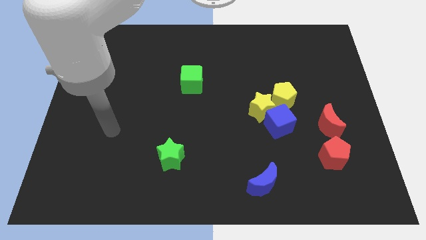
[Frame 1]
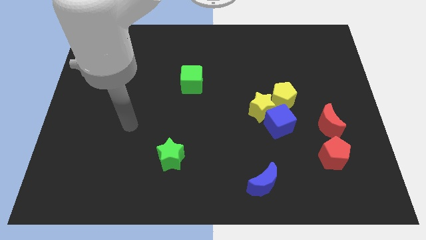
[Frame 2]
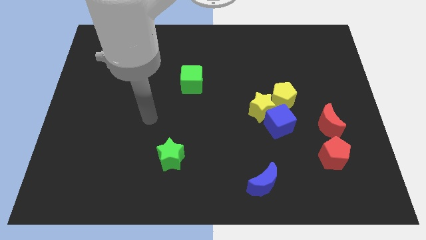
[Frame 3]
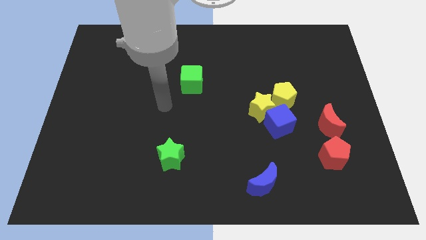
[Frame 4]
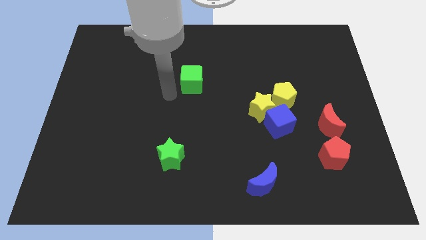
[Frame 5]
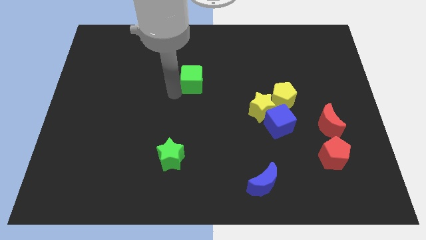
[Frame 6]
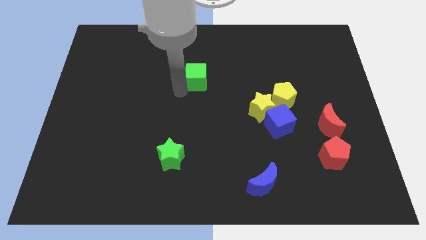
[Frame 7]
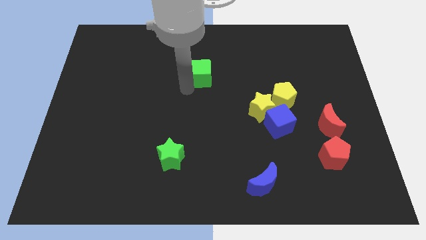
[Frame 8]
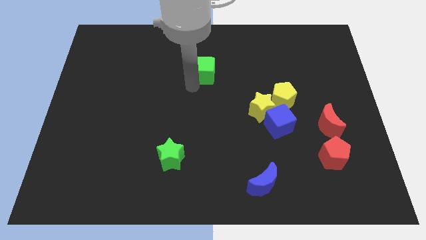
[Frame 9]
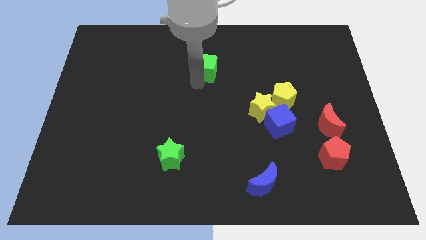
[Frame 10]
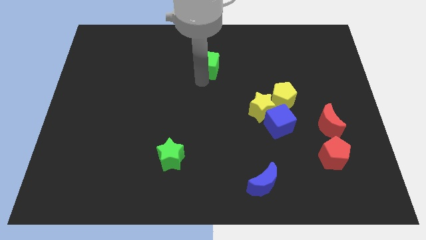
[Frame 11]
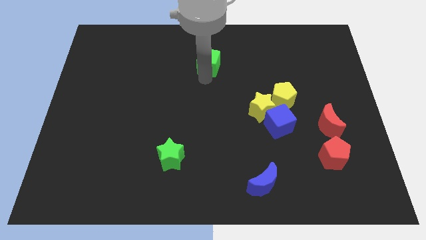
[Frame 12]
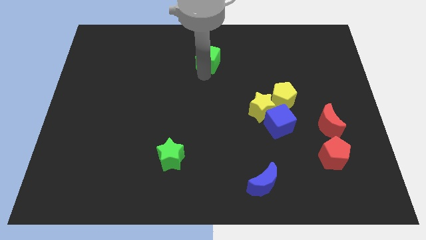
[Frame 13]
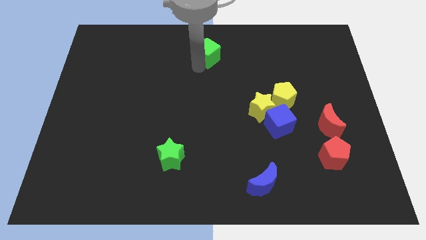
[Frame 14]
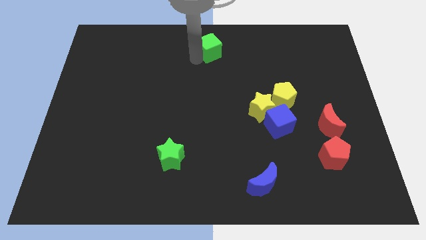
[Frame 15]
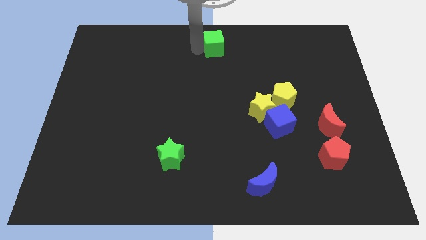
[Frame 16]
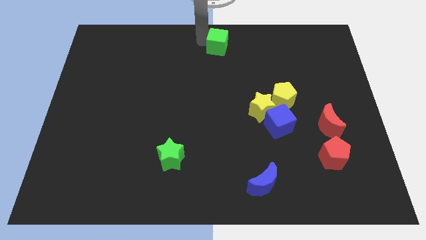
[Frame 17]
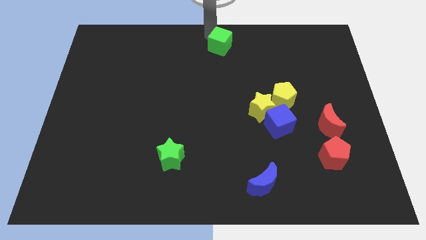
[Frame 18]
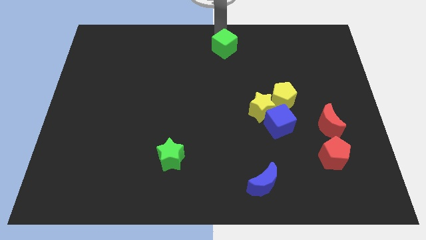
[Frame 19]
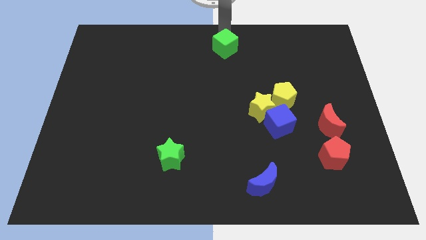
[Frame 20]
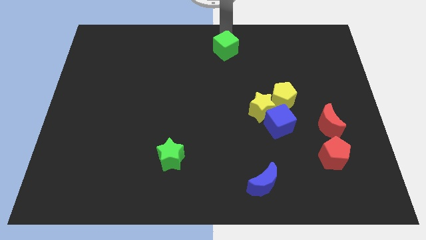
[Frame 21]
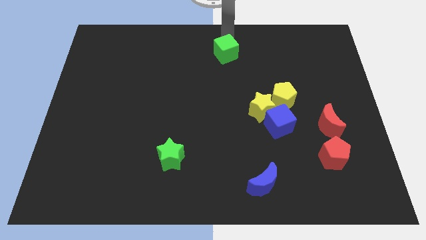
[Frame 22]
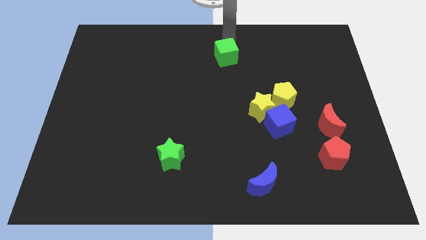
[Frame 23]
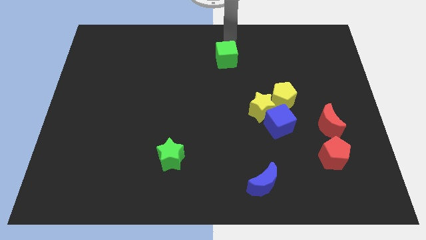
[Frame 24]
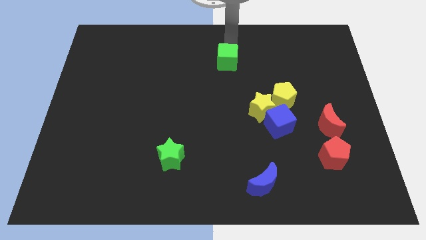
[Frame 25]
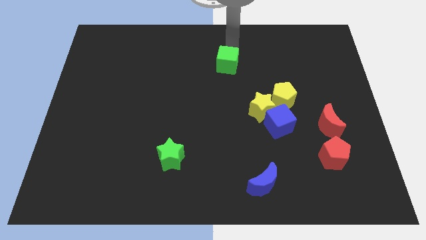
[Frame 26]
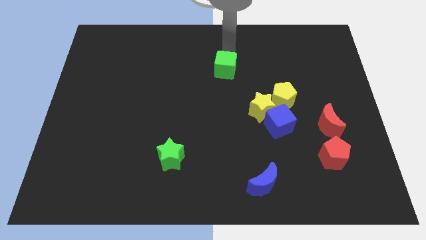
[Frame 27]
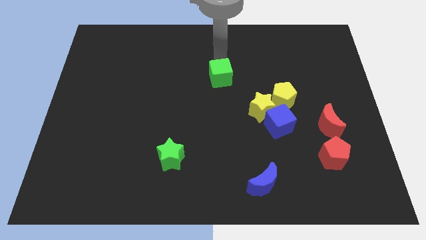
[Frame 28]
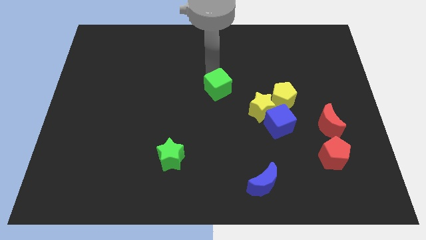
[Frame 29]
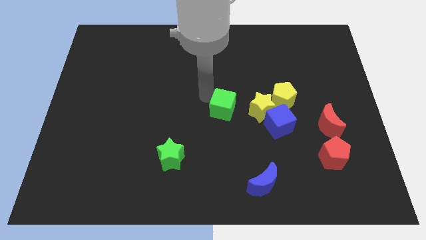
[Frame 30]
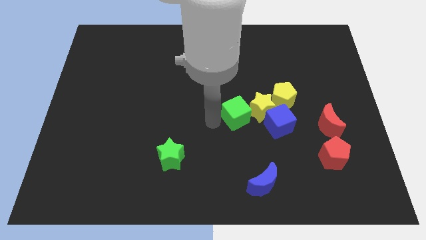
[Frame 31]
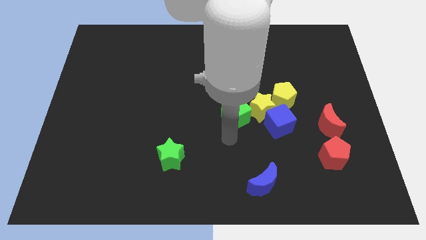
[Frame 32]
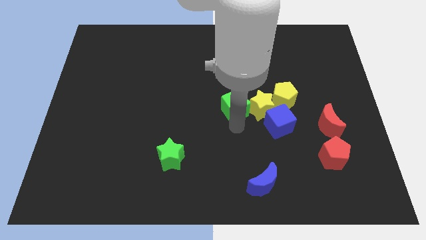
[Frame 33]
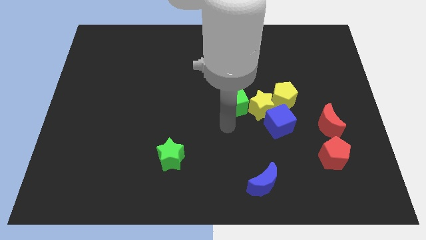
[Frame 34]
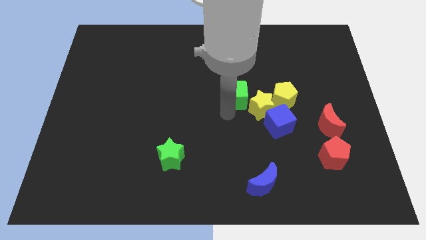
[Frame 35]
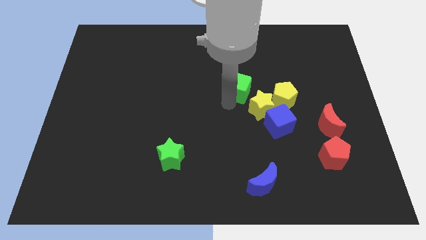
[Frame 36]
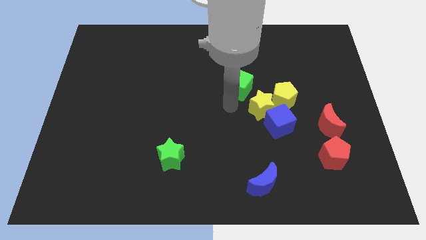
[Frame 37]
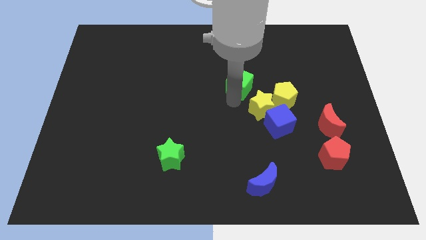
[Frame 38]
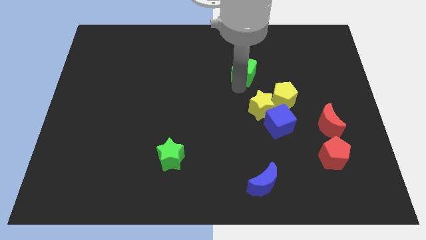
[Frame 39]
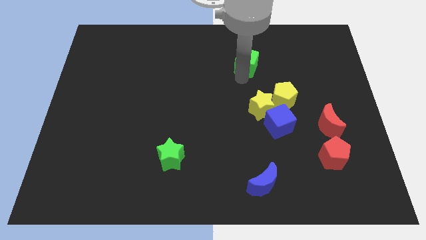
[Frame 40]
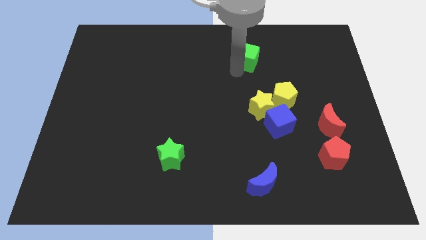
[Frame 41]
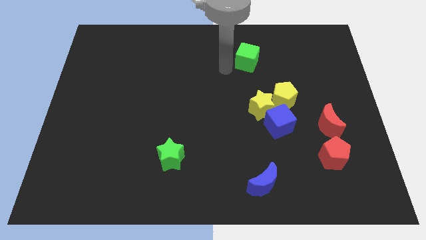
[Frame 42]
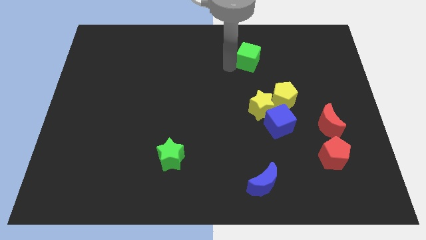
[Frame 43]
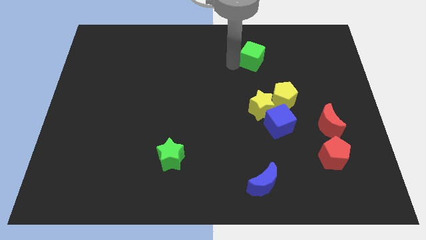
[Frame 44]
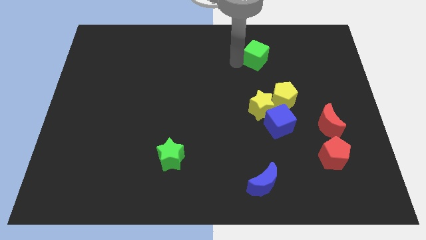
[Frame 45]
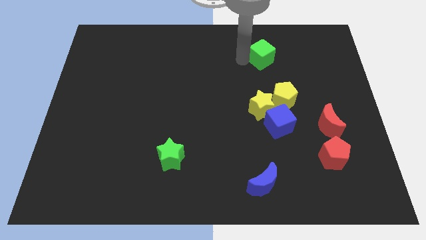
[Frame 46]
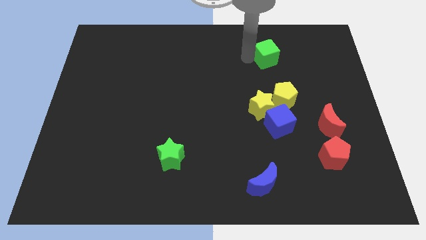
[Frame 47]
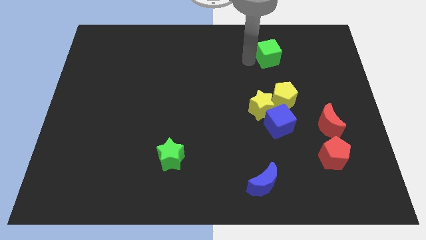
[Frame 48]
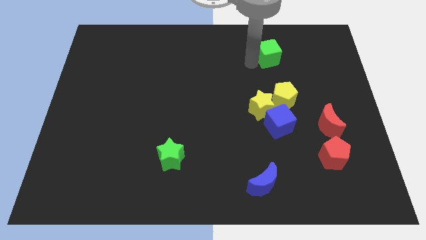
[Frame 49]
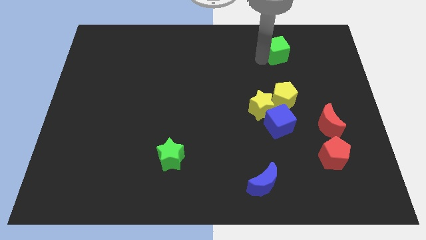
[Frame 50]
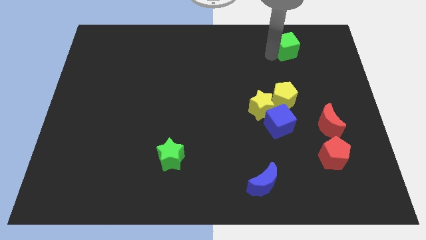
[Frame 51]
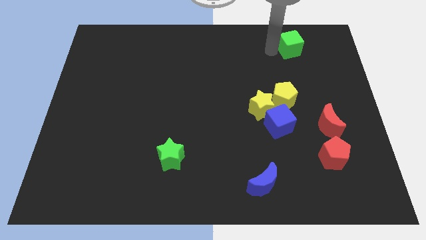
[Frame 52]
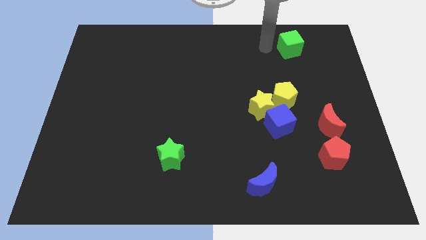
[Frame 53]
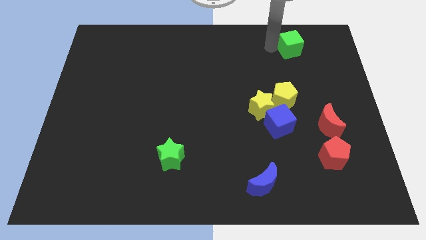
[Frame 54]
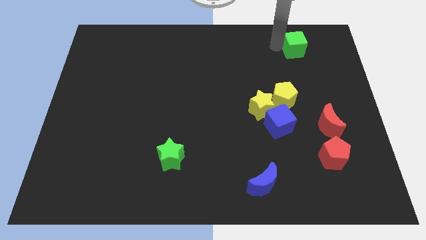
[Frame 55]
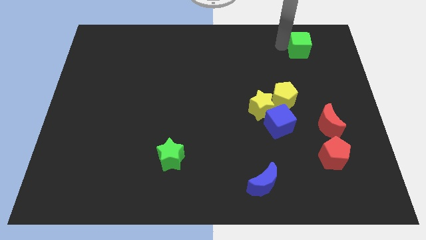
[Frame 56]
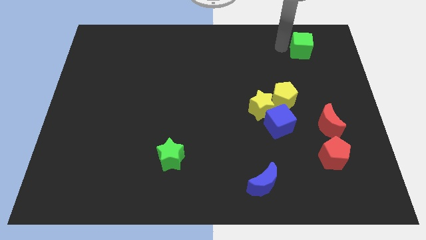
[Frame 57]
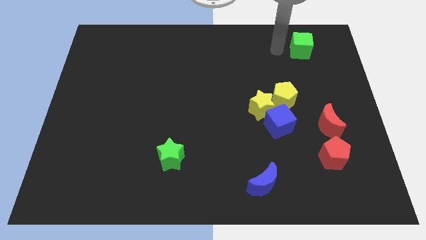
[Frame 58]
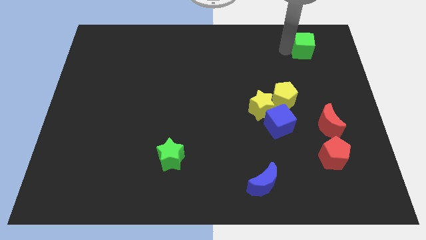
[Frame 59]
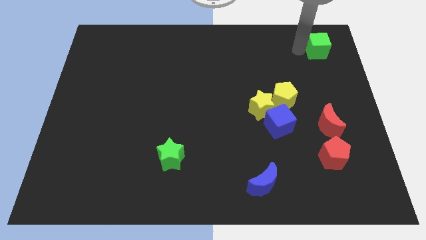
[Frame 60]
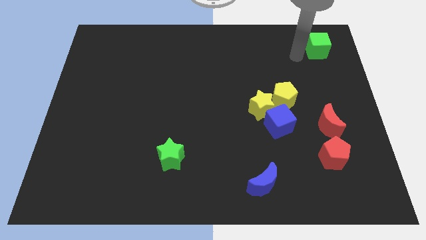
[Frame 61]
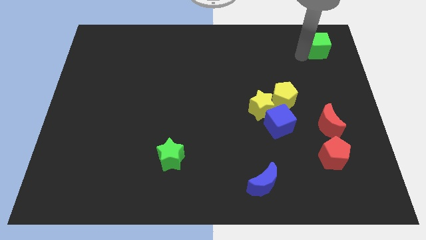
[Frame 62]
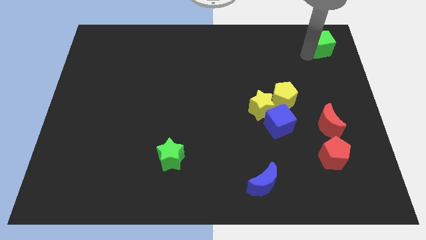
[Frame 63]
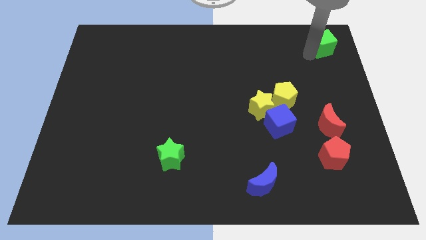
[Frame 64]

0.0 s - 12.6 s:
slide the green cube to the top right of the board

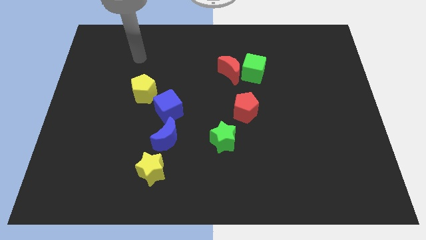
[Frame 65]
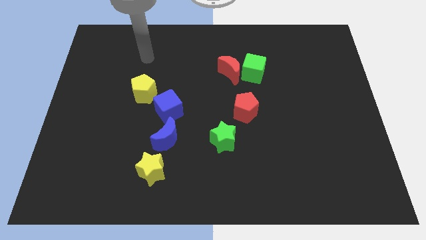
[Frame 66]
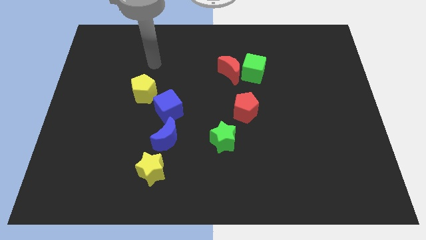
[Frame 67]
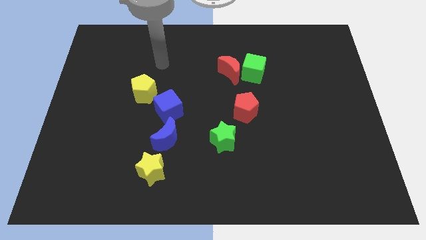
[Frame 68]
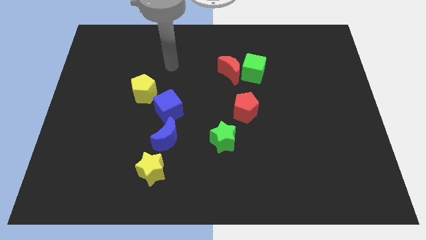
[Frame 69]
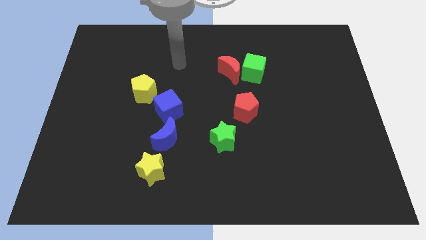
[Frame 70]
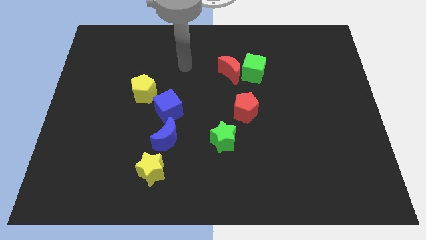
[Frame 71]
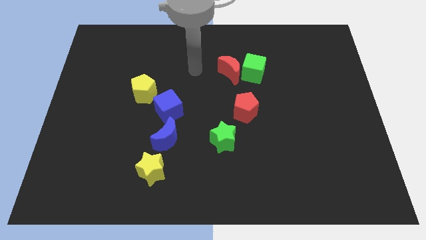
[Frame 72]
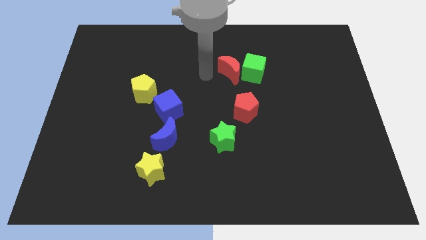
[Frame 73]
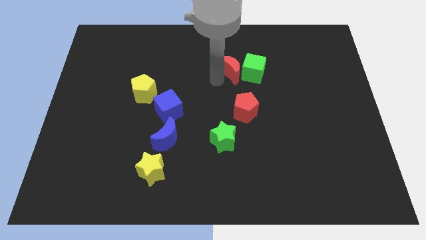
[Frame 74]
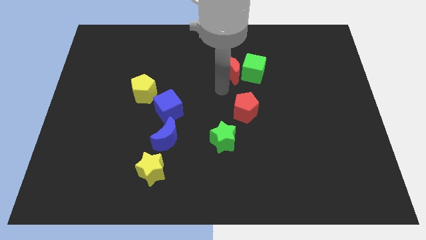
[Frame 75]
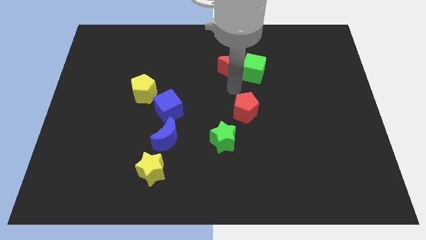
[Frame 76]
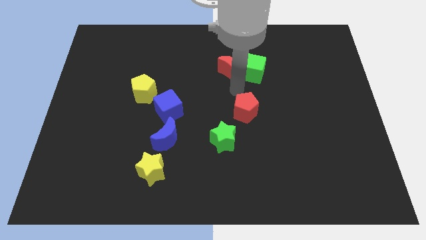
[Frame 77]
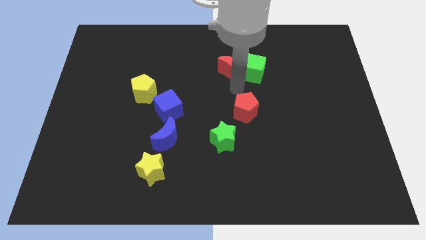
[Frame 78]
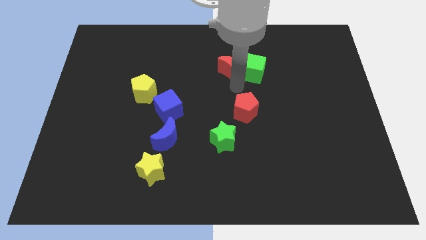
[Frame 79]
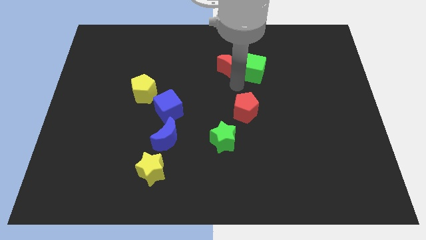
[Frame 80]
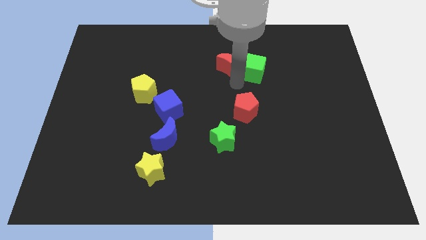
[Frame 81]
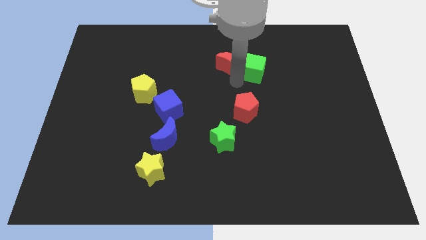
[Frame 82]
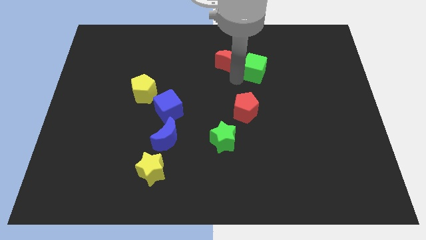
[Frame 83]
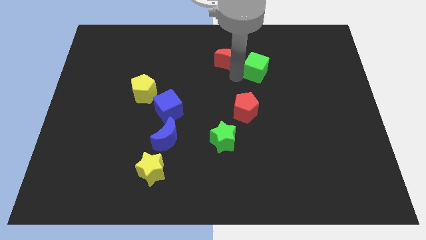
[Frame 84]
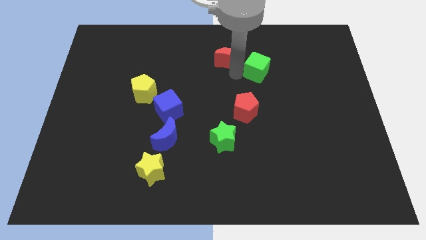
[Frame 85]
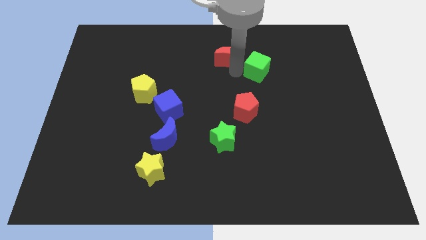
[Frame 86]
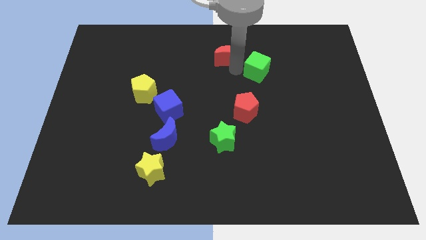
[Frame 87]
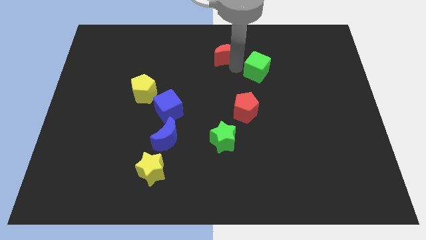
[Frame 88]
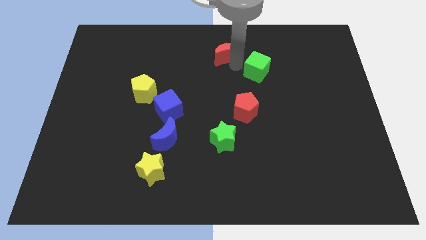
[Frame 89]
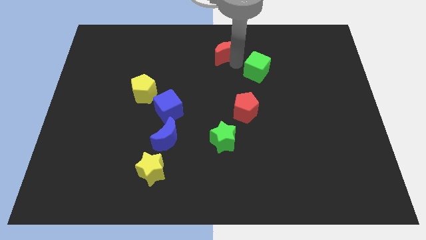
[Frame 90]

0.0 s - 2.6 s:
push the red moon to the top
